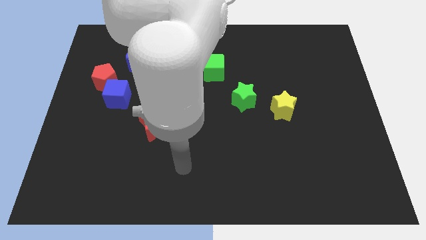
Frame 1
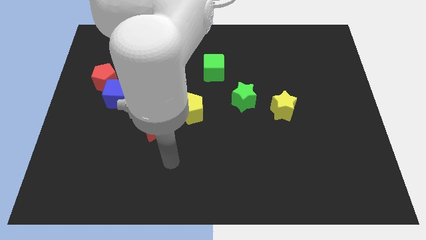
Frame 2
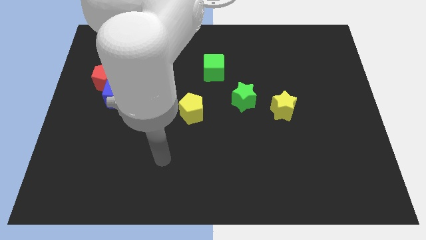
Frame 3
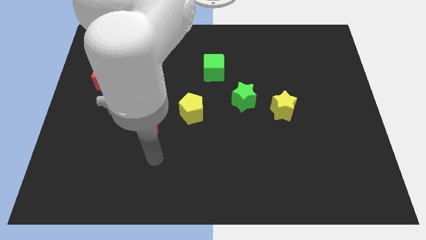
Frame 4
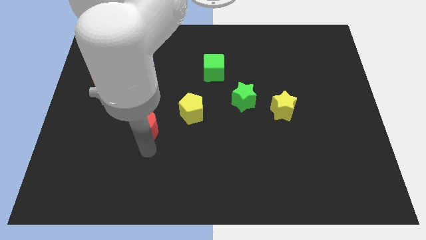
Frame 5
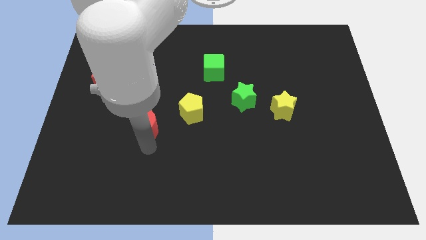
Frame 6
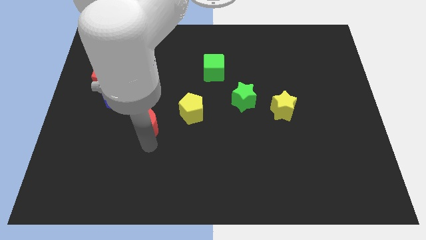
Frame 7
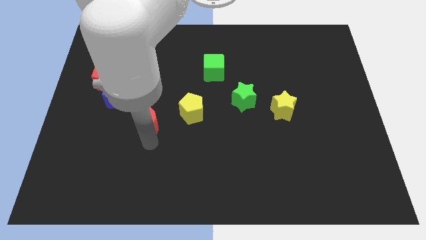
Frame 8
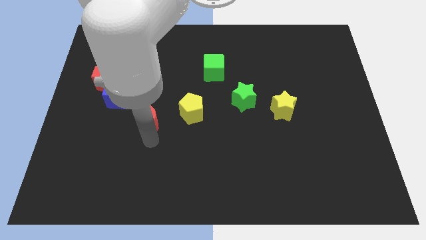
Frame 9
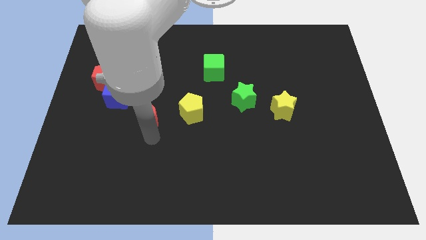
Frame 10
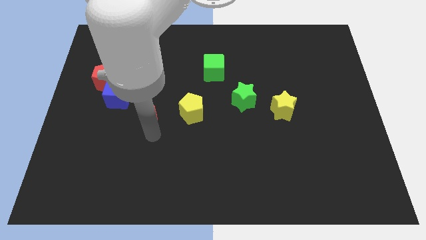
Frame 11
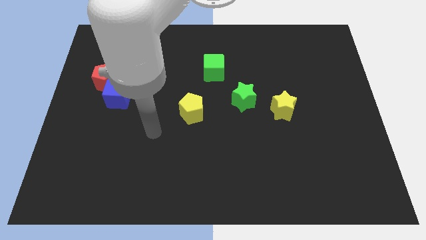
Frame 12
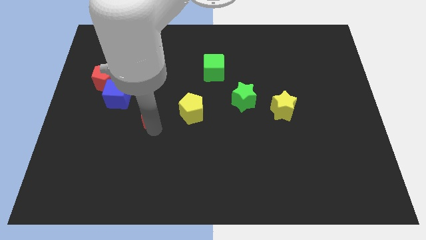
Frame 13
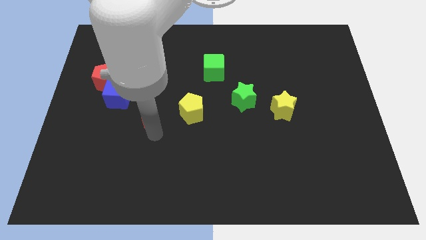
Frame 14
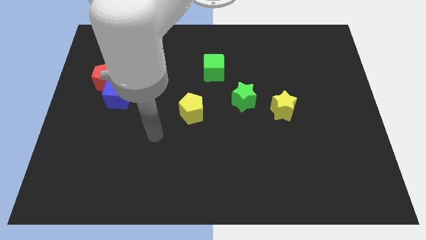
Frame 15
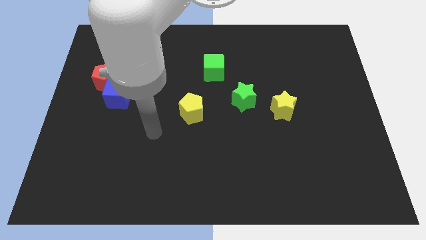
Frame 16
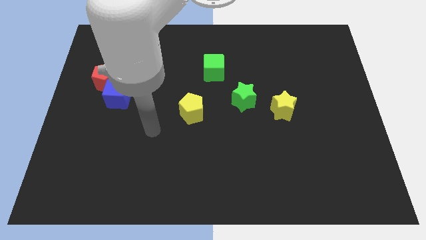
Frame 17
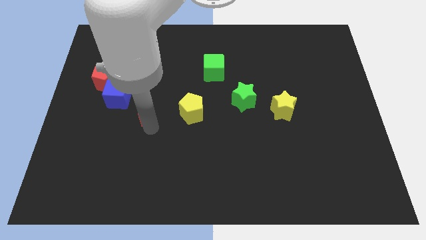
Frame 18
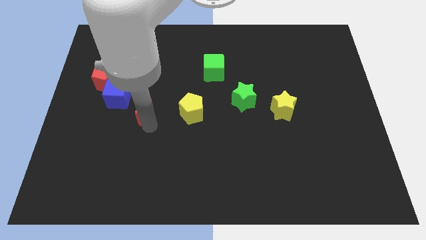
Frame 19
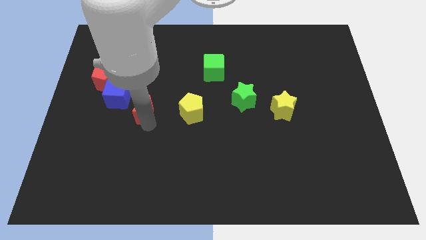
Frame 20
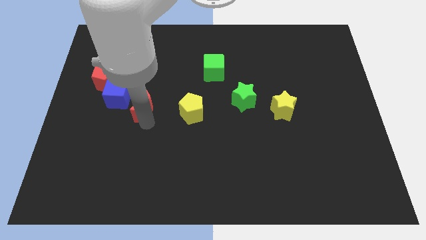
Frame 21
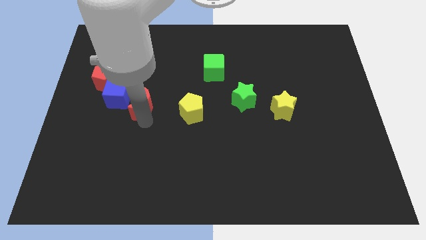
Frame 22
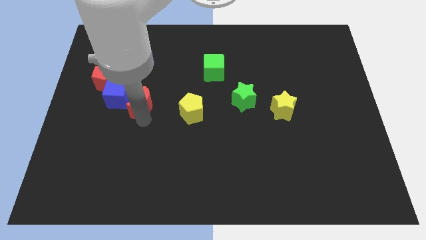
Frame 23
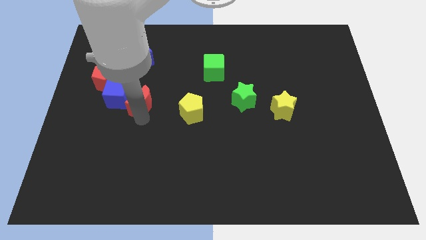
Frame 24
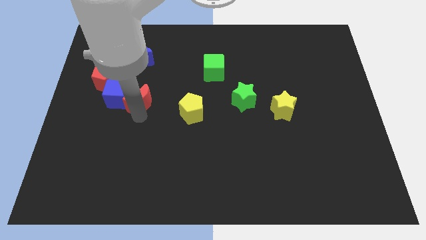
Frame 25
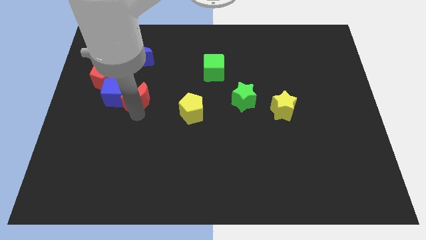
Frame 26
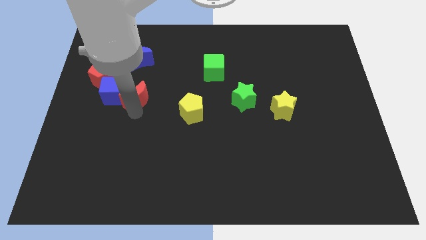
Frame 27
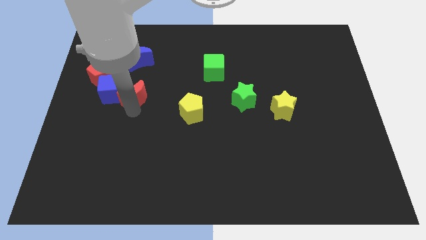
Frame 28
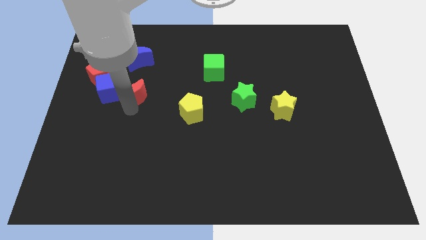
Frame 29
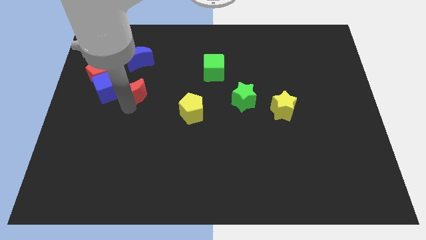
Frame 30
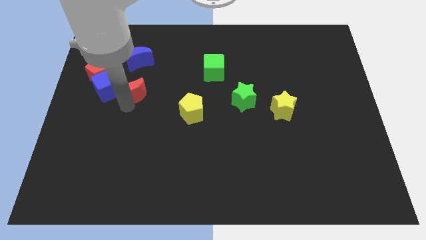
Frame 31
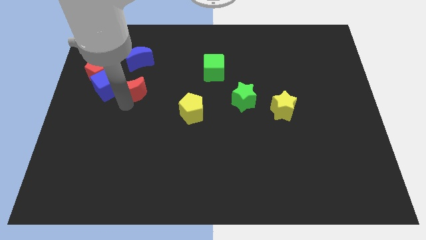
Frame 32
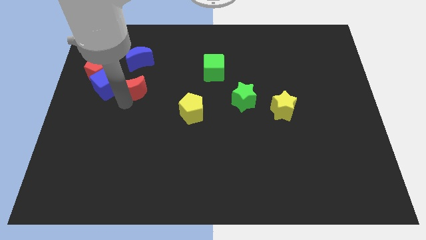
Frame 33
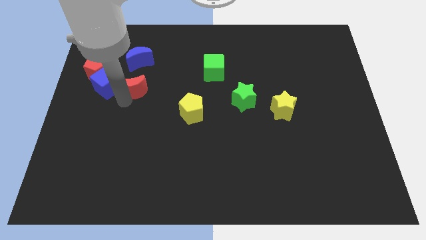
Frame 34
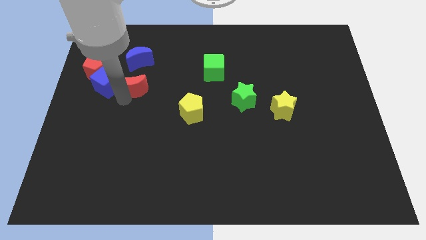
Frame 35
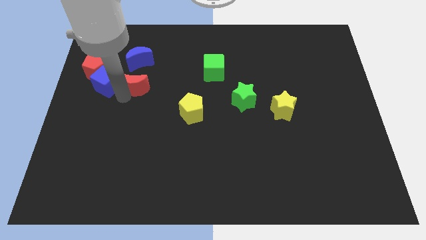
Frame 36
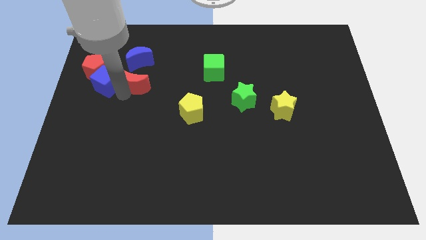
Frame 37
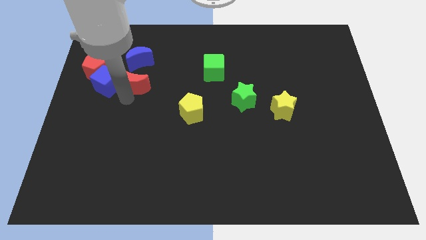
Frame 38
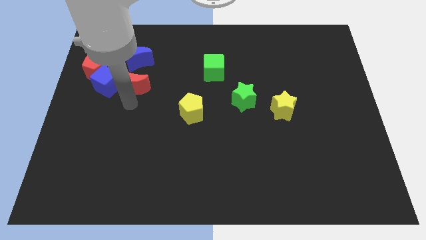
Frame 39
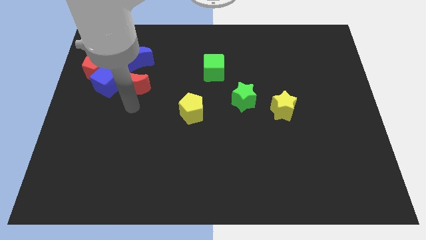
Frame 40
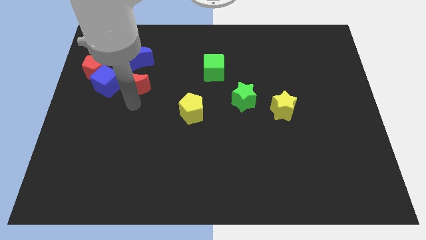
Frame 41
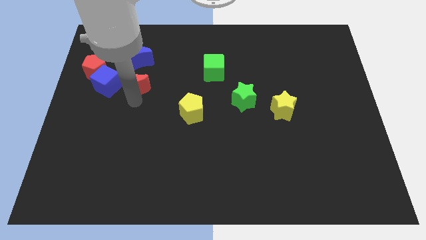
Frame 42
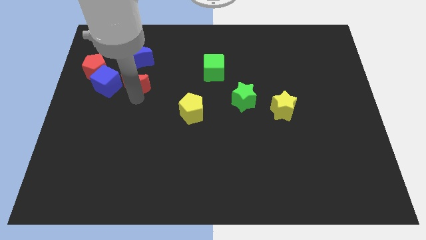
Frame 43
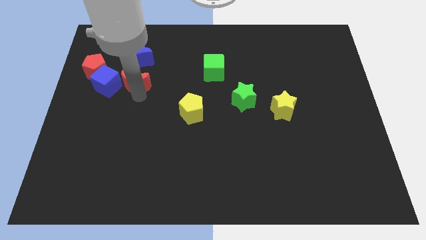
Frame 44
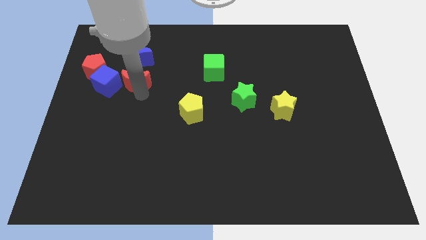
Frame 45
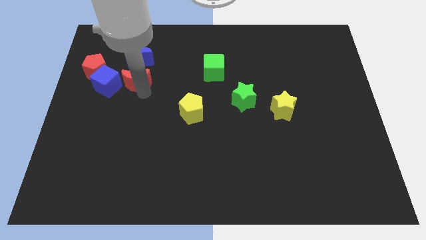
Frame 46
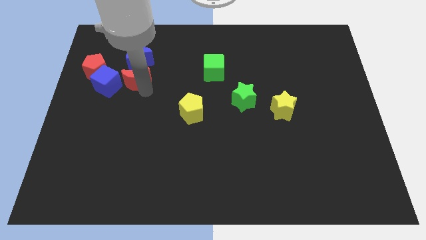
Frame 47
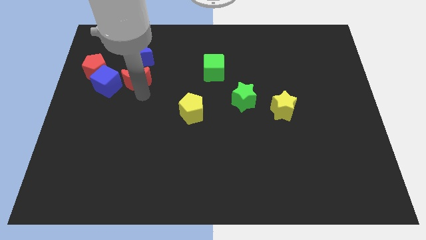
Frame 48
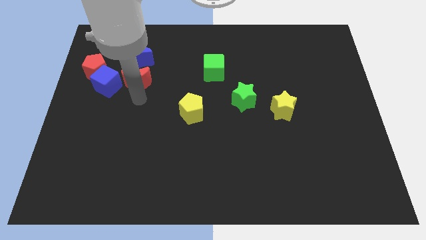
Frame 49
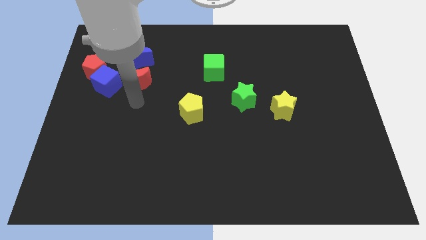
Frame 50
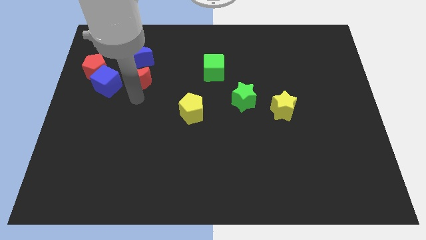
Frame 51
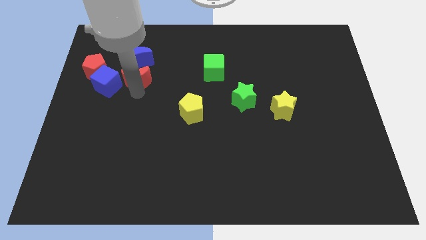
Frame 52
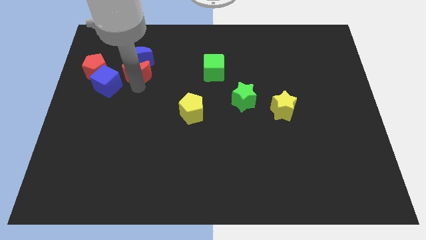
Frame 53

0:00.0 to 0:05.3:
push the red moon towards the blue moon

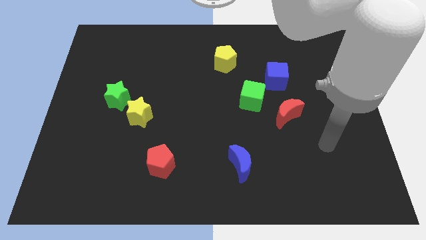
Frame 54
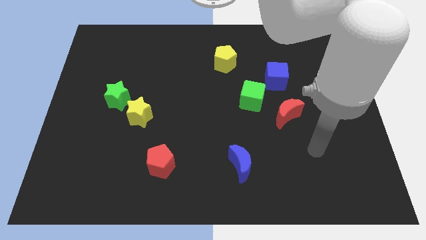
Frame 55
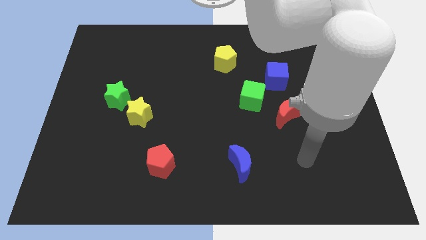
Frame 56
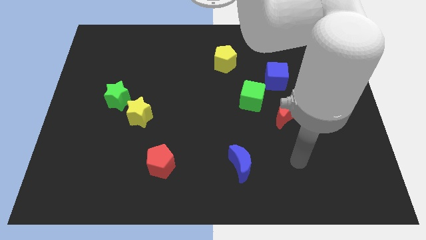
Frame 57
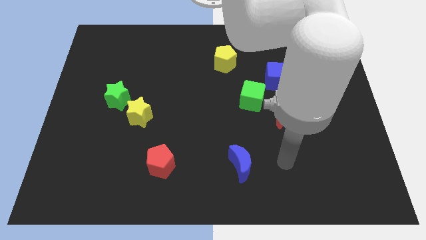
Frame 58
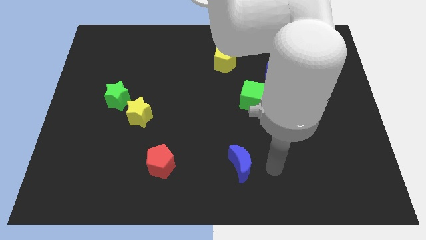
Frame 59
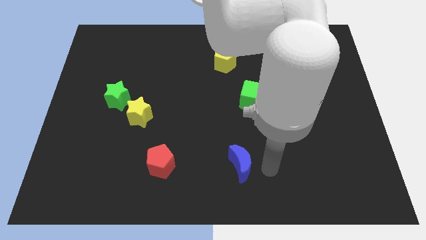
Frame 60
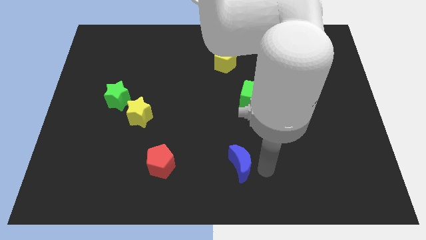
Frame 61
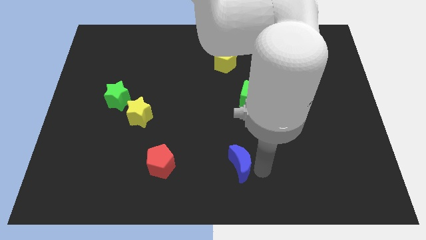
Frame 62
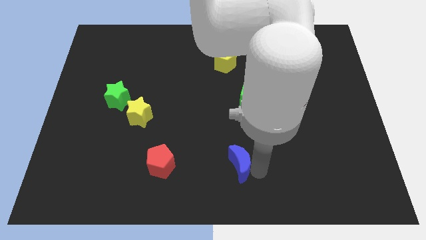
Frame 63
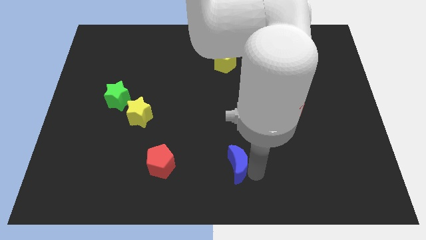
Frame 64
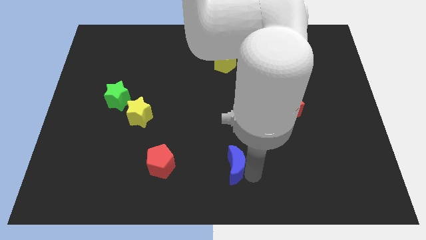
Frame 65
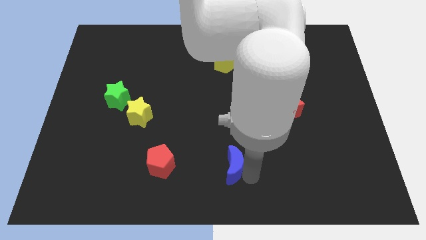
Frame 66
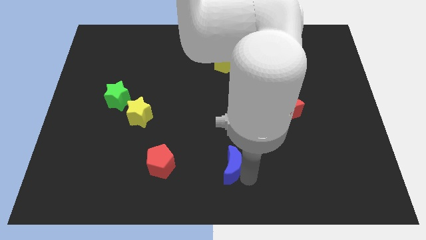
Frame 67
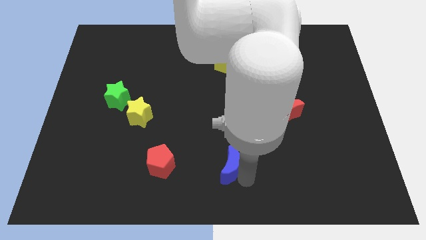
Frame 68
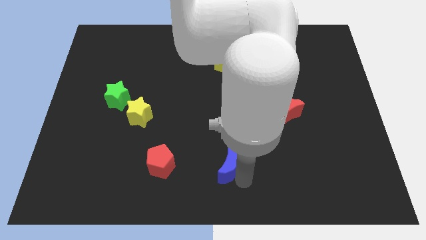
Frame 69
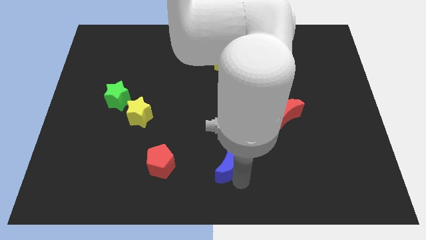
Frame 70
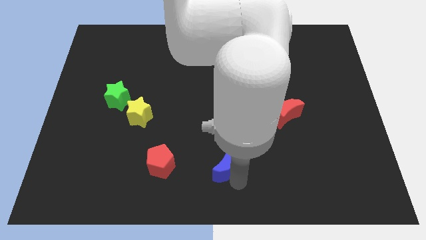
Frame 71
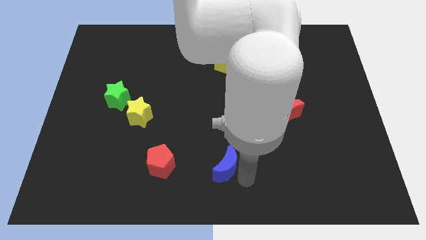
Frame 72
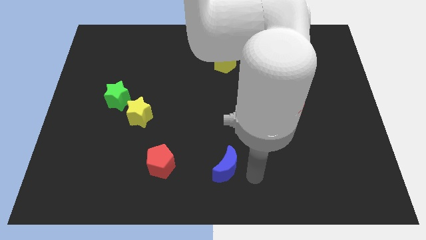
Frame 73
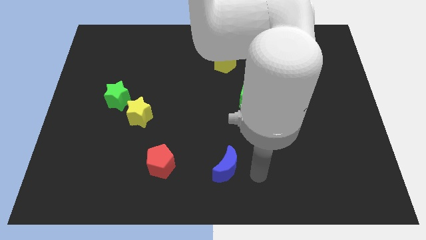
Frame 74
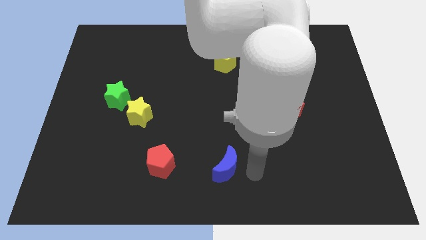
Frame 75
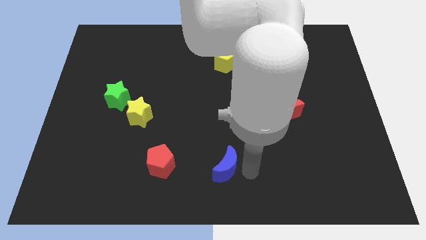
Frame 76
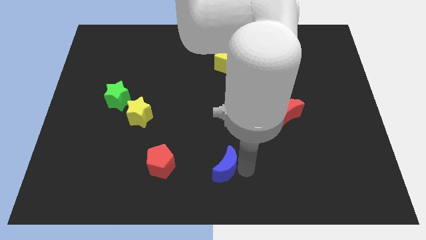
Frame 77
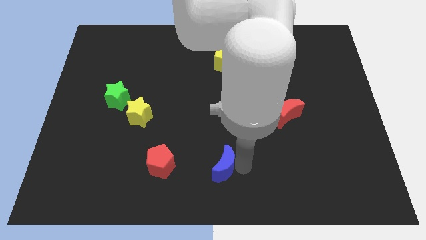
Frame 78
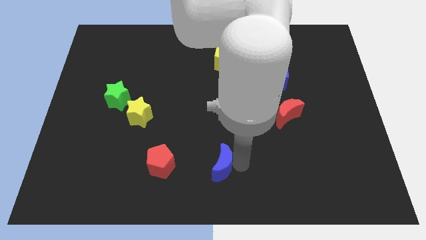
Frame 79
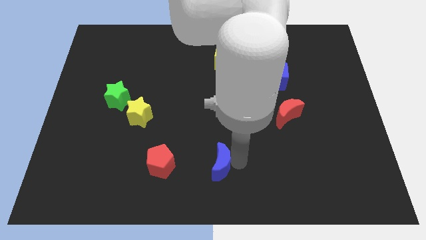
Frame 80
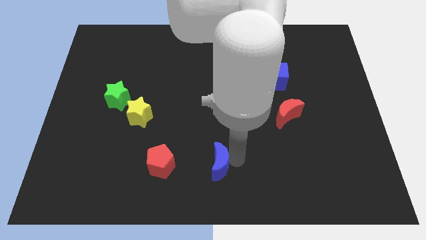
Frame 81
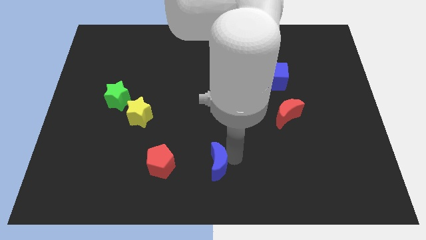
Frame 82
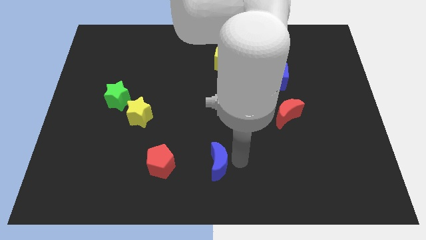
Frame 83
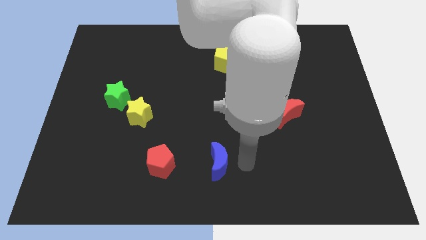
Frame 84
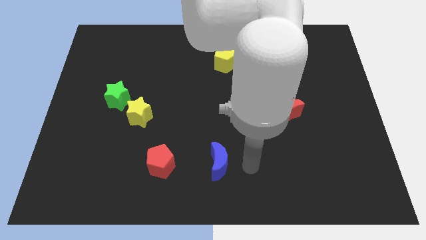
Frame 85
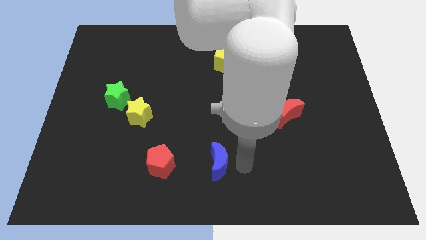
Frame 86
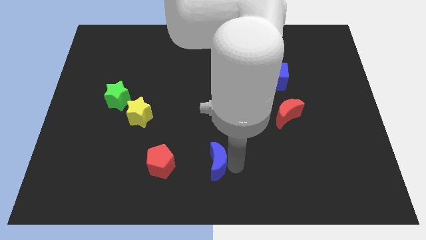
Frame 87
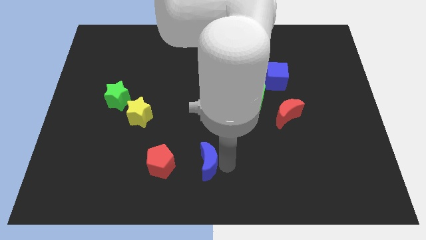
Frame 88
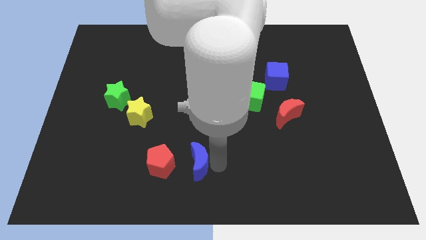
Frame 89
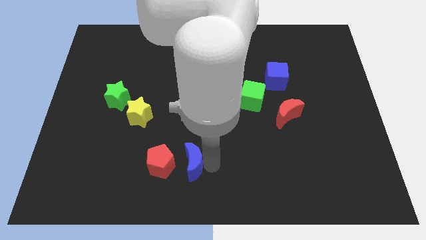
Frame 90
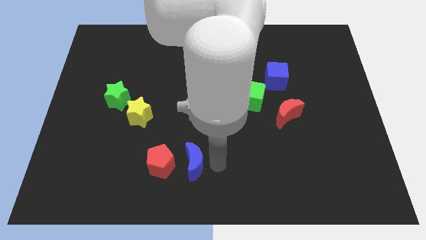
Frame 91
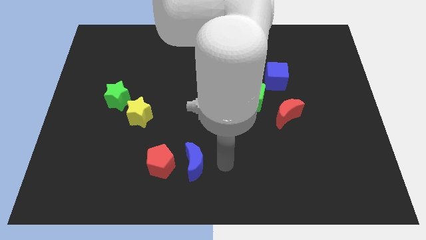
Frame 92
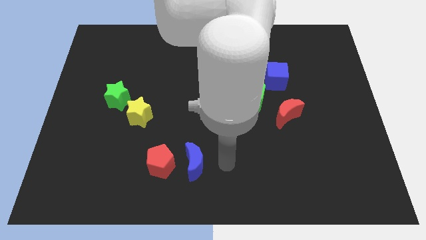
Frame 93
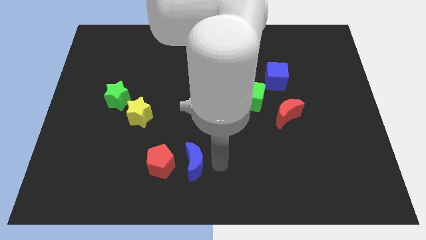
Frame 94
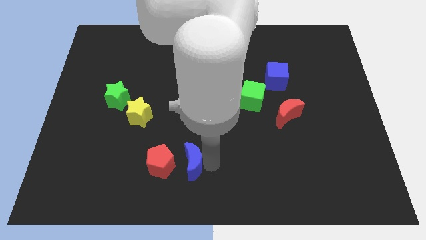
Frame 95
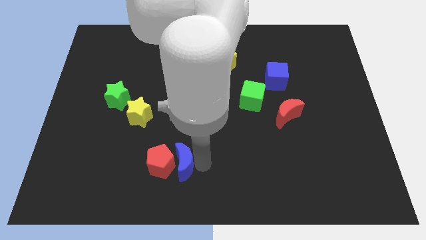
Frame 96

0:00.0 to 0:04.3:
slide the blue moon to the red pentagon
